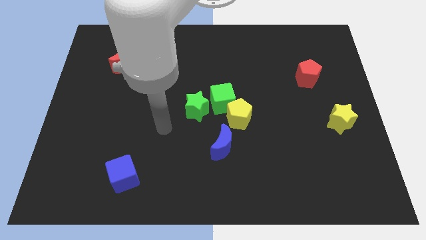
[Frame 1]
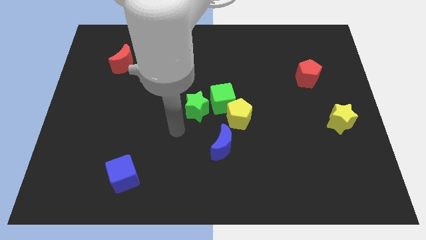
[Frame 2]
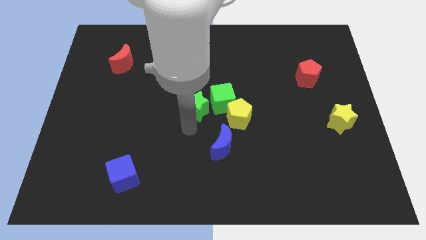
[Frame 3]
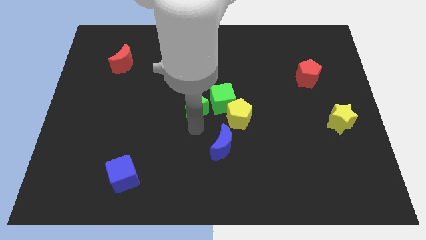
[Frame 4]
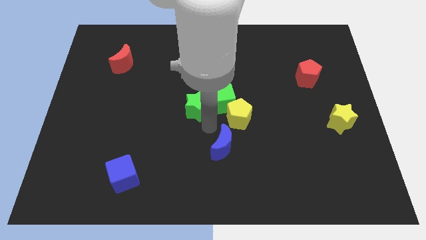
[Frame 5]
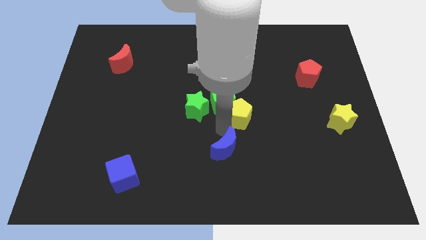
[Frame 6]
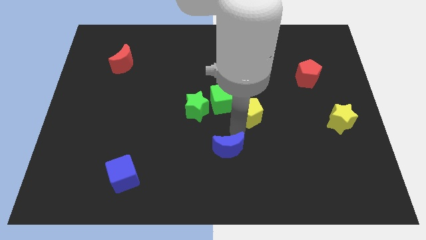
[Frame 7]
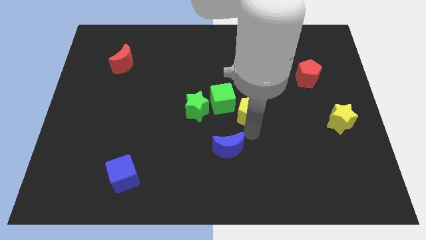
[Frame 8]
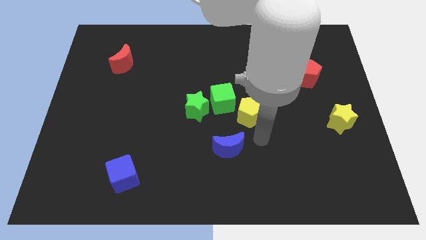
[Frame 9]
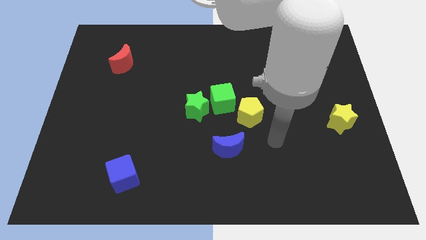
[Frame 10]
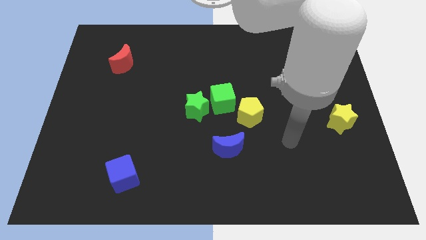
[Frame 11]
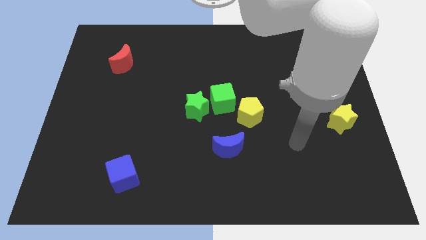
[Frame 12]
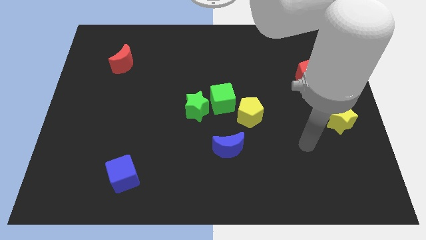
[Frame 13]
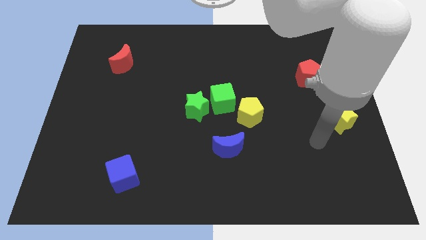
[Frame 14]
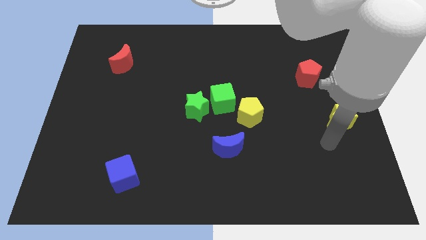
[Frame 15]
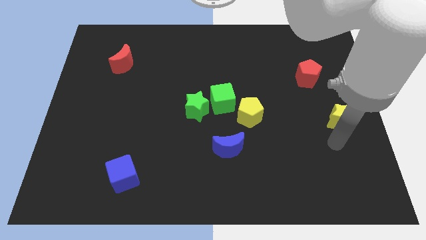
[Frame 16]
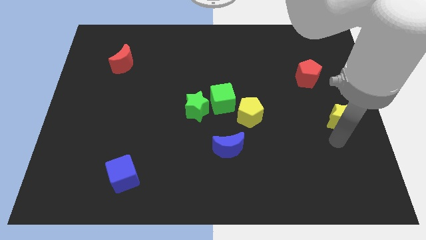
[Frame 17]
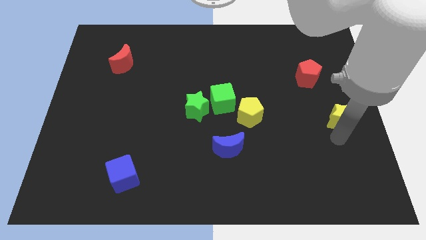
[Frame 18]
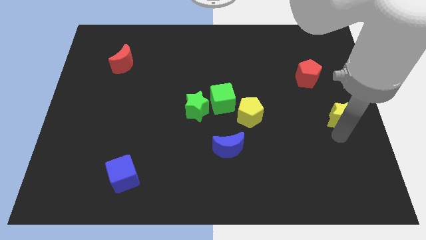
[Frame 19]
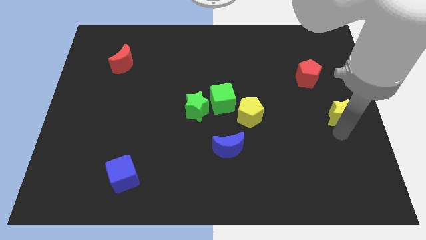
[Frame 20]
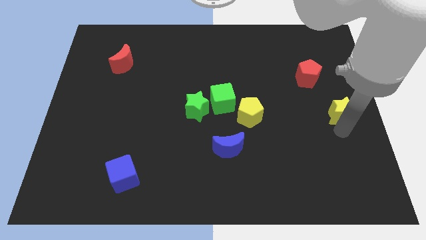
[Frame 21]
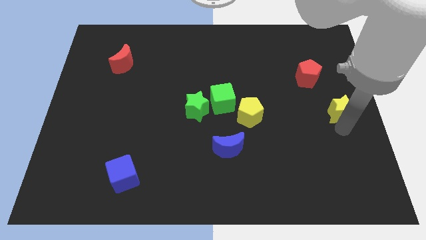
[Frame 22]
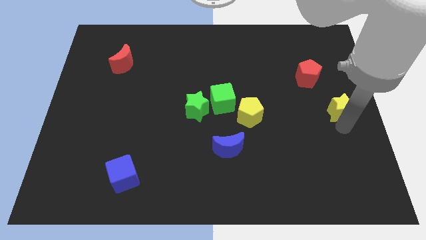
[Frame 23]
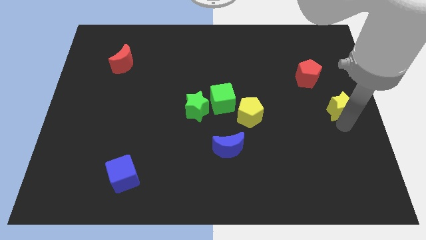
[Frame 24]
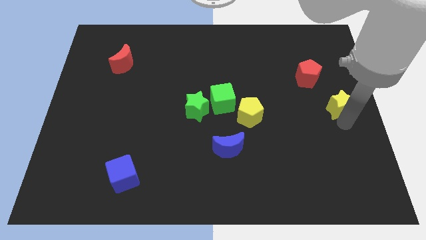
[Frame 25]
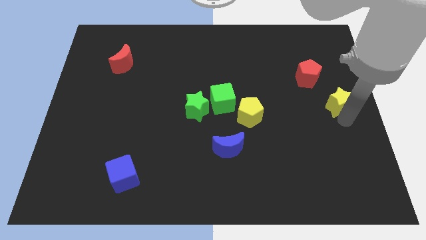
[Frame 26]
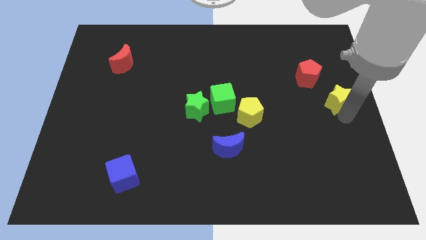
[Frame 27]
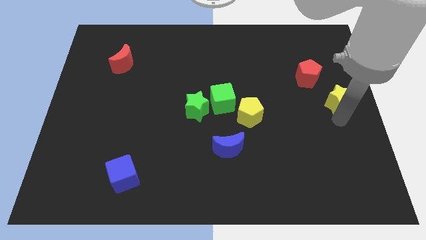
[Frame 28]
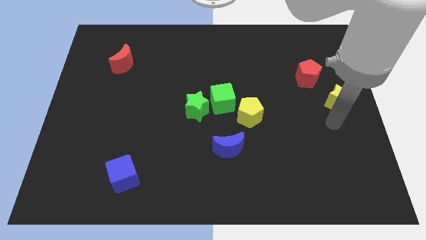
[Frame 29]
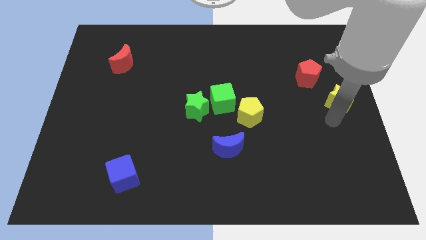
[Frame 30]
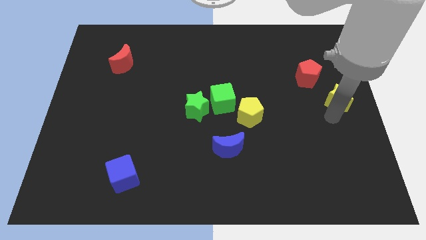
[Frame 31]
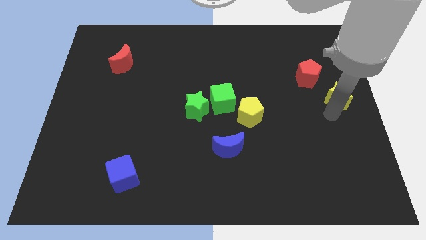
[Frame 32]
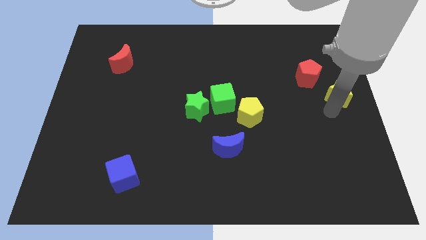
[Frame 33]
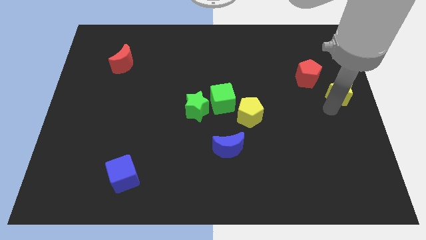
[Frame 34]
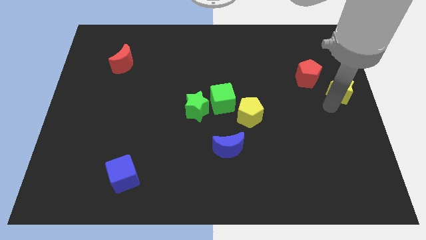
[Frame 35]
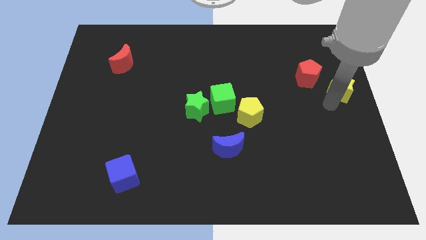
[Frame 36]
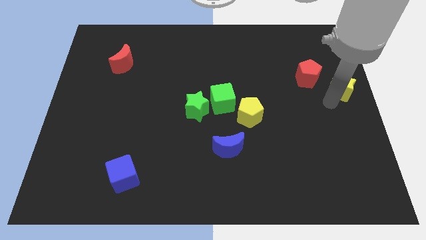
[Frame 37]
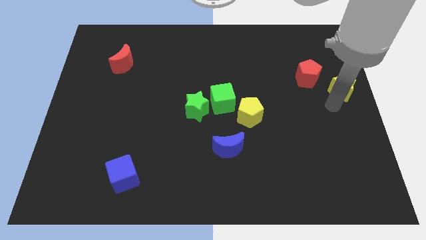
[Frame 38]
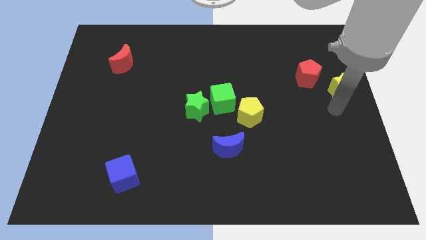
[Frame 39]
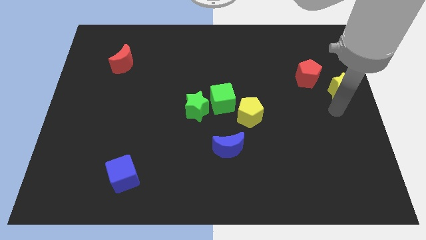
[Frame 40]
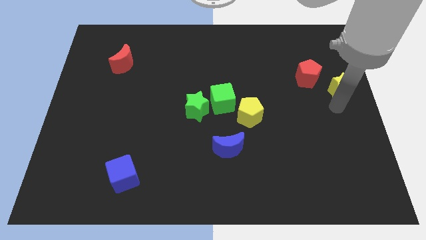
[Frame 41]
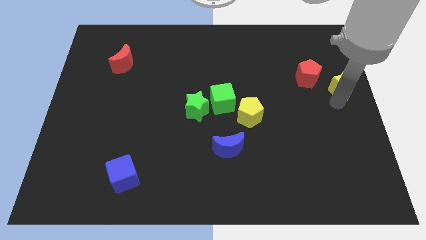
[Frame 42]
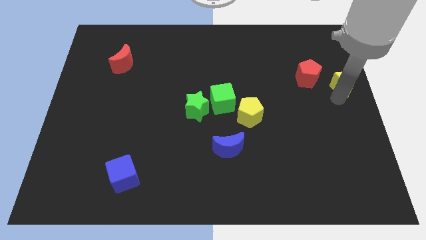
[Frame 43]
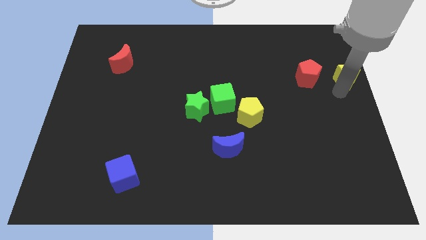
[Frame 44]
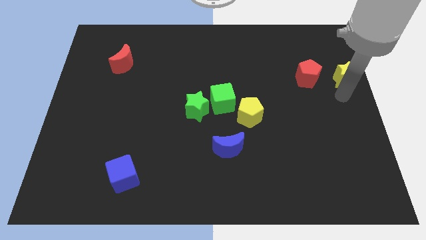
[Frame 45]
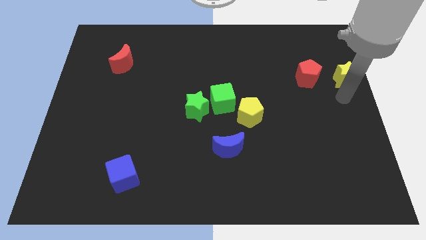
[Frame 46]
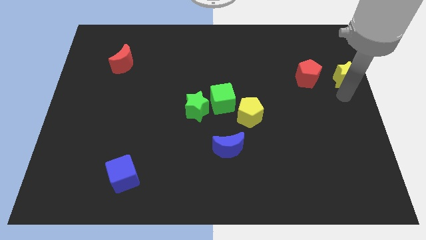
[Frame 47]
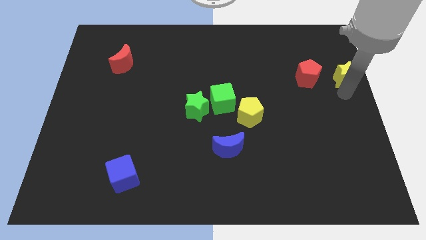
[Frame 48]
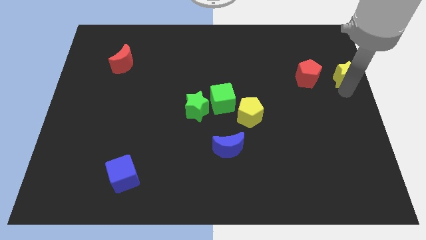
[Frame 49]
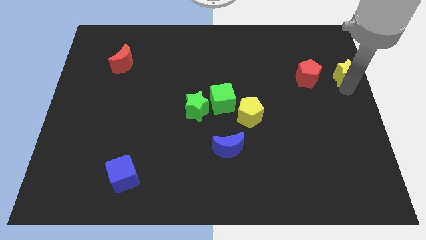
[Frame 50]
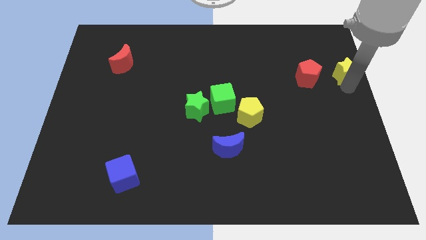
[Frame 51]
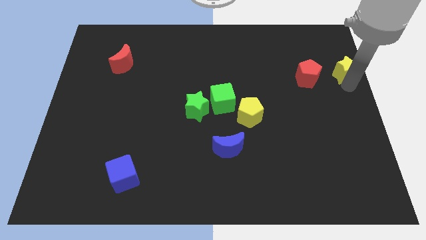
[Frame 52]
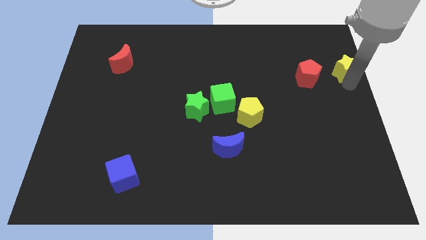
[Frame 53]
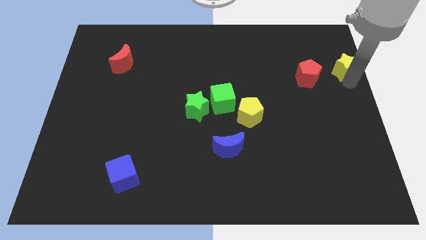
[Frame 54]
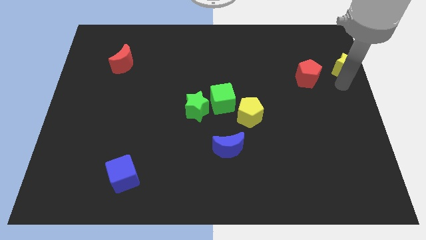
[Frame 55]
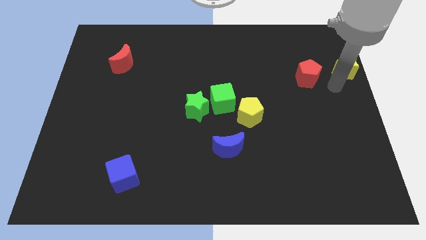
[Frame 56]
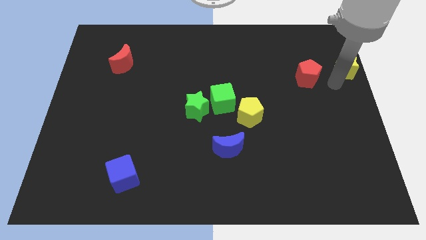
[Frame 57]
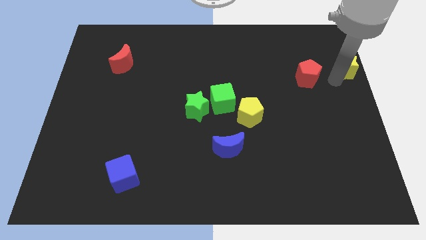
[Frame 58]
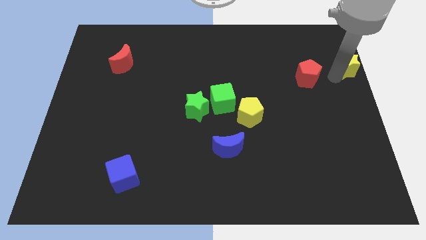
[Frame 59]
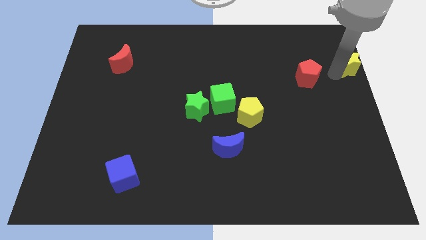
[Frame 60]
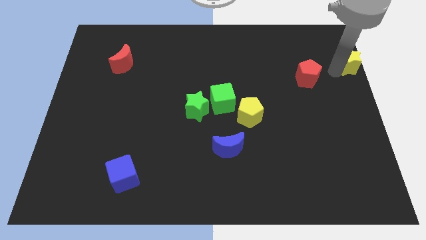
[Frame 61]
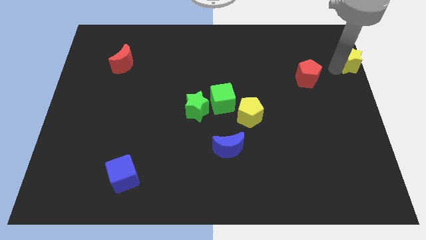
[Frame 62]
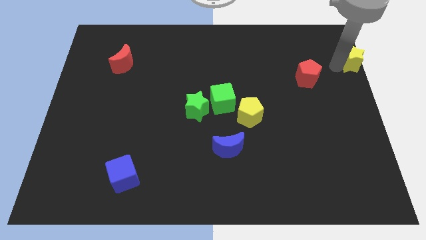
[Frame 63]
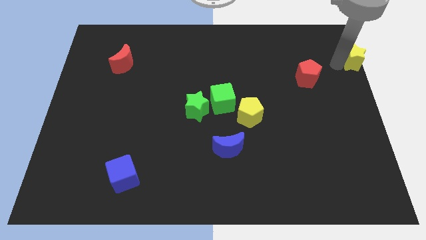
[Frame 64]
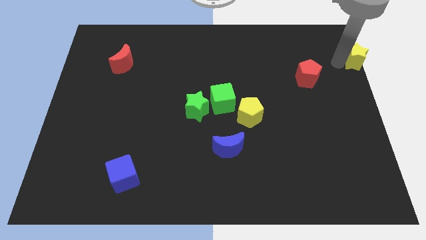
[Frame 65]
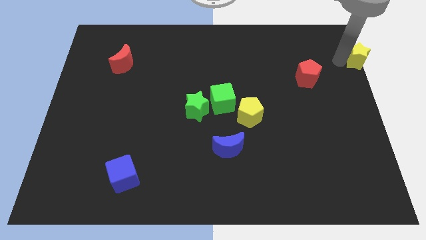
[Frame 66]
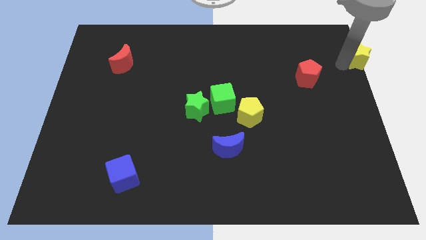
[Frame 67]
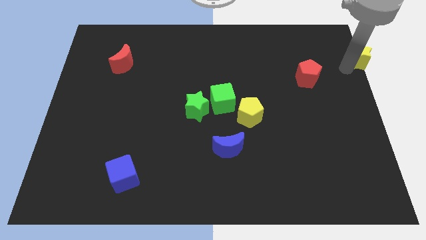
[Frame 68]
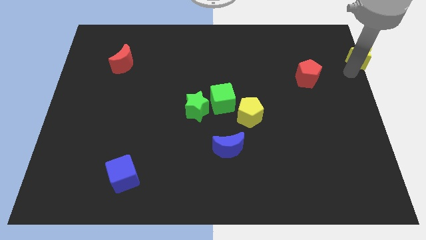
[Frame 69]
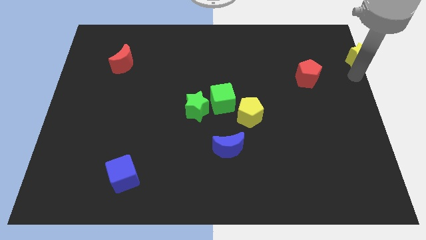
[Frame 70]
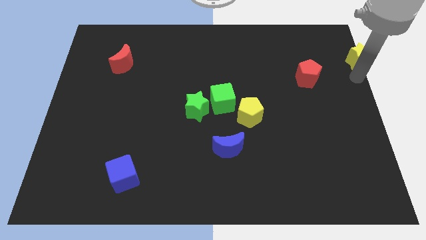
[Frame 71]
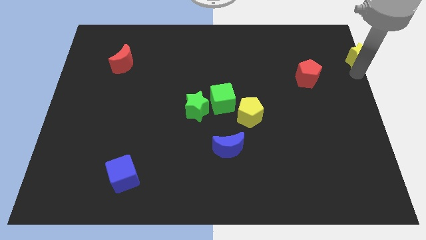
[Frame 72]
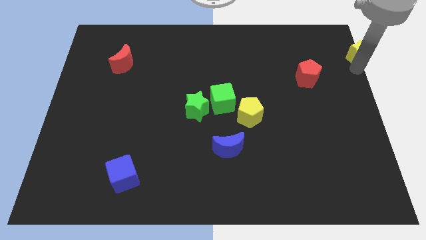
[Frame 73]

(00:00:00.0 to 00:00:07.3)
move the yellow star to the top right
